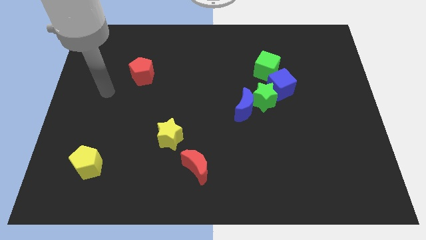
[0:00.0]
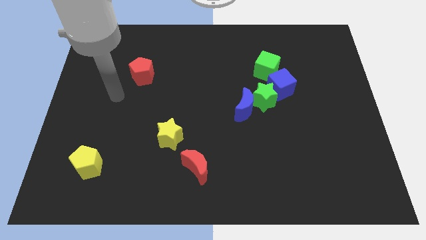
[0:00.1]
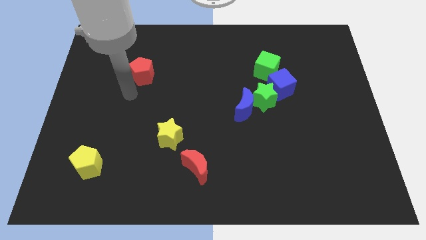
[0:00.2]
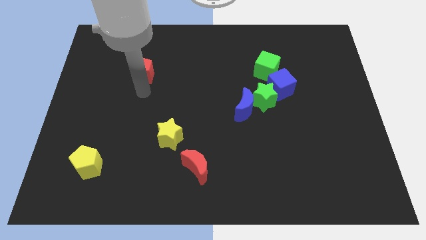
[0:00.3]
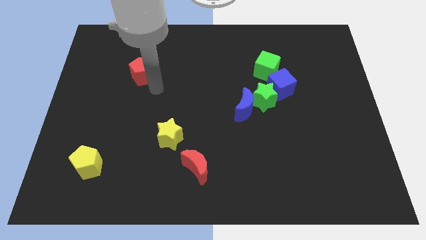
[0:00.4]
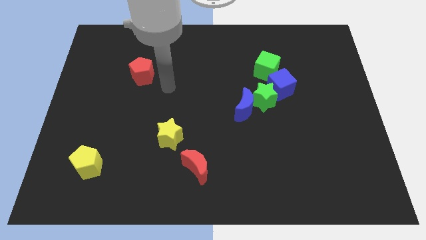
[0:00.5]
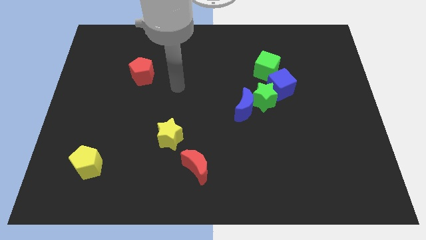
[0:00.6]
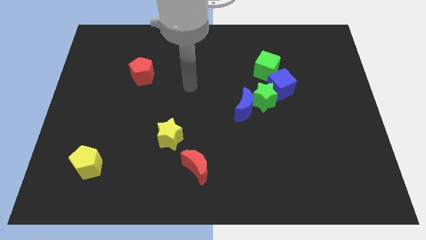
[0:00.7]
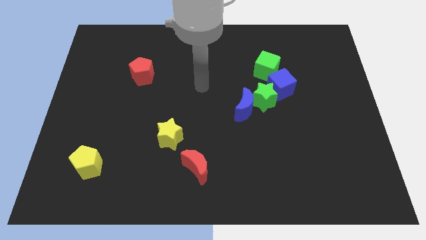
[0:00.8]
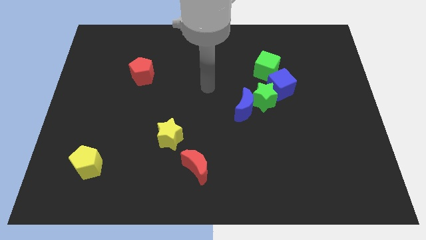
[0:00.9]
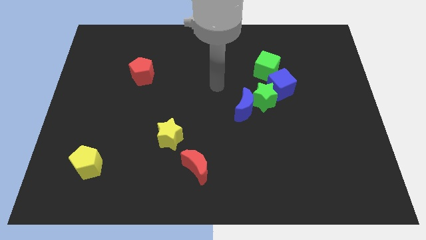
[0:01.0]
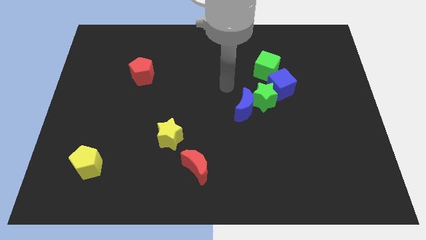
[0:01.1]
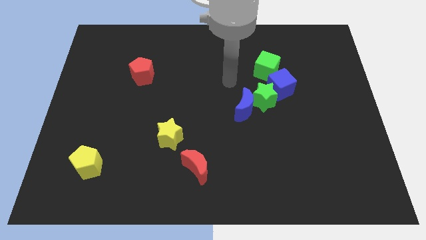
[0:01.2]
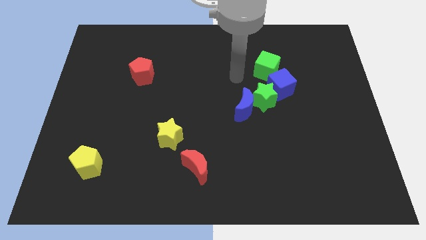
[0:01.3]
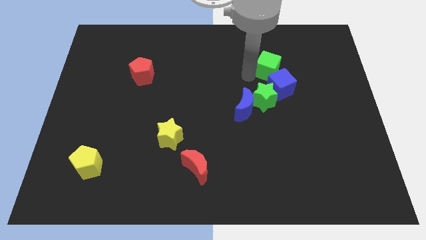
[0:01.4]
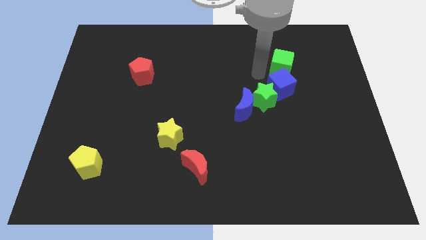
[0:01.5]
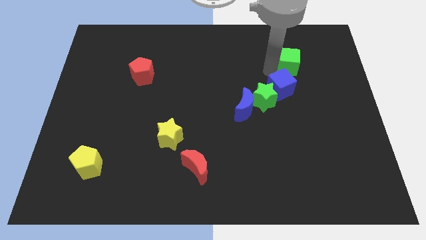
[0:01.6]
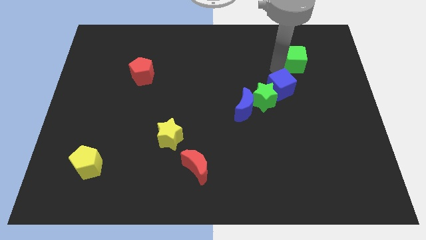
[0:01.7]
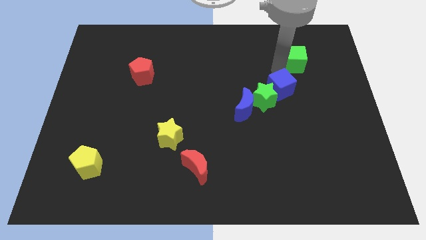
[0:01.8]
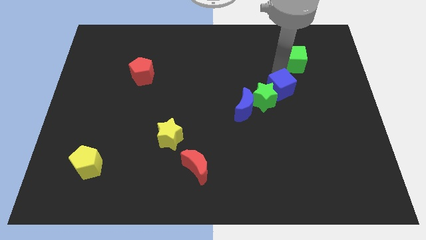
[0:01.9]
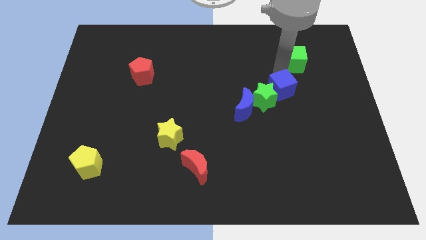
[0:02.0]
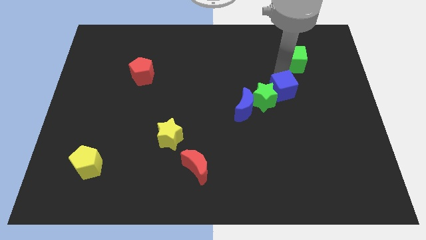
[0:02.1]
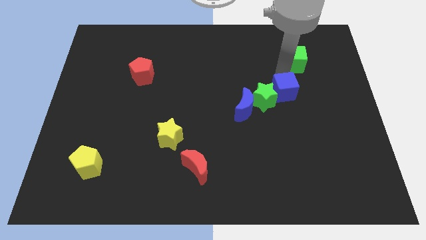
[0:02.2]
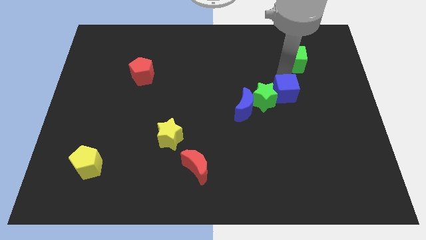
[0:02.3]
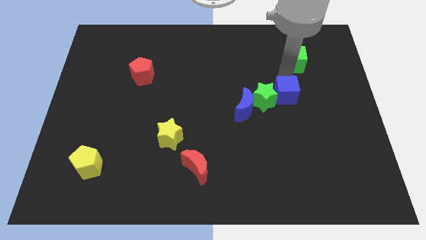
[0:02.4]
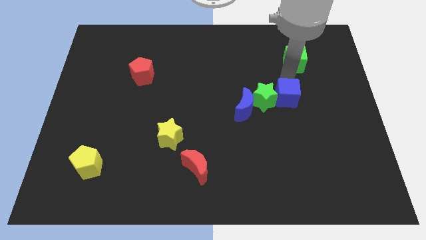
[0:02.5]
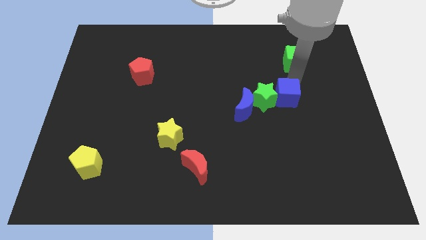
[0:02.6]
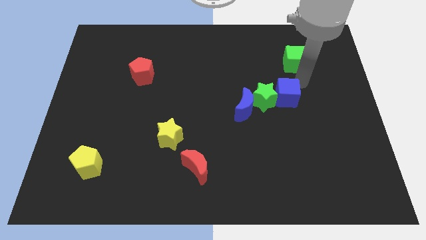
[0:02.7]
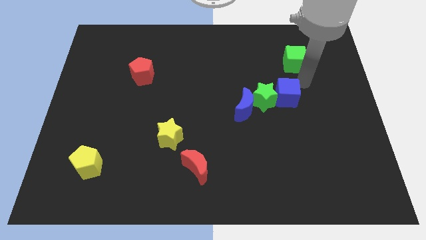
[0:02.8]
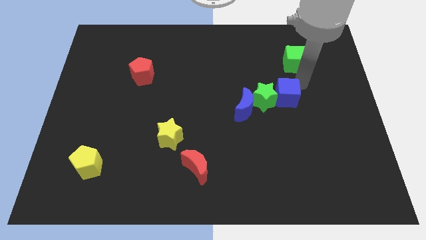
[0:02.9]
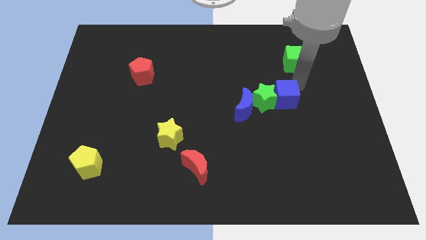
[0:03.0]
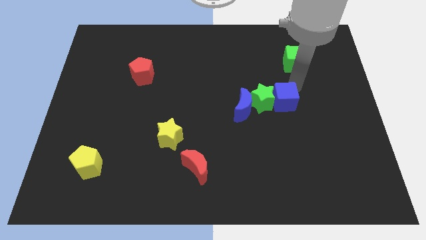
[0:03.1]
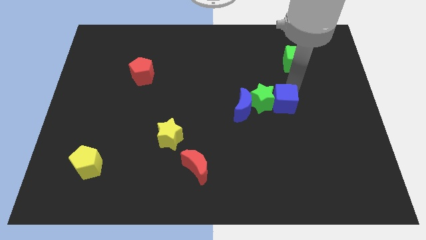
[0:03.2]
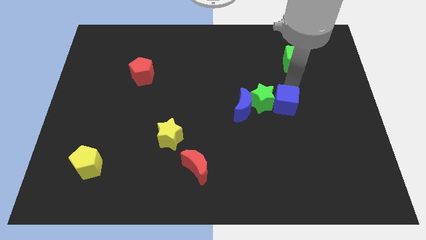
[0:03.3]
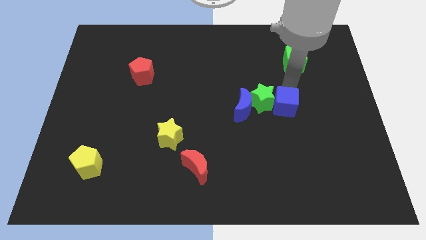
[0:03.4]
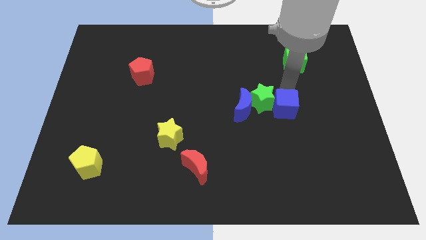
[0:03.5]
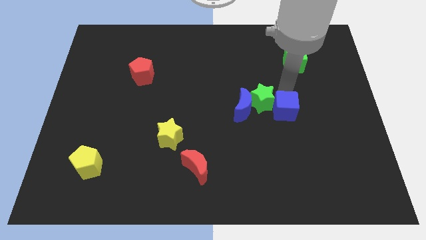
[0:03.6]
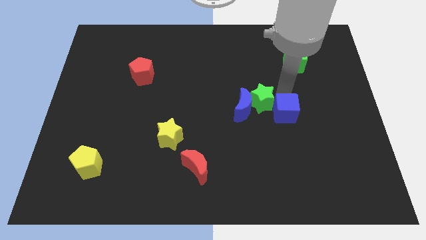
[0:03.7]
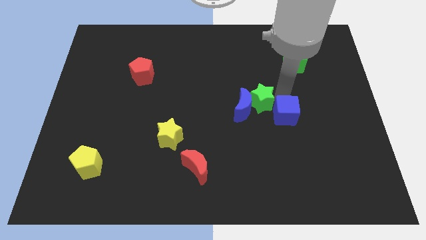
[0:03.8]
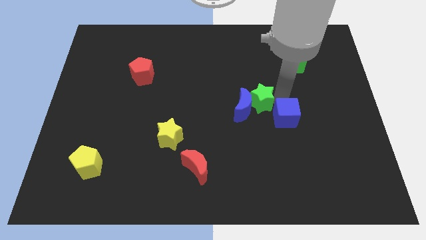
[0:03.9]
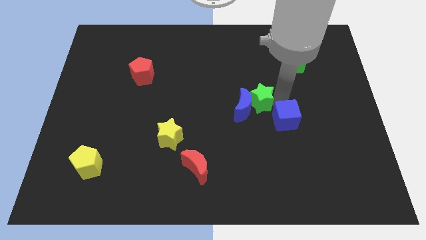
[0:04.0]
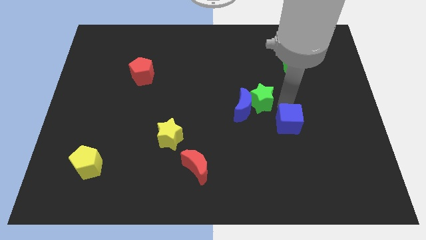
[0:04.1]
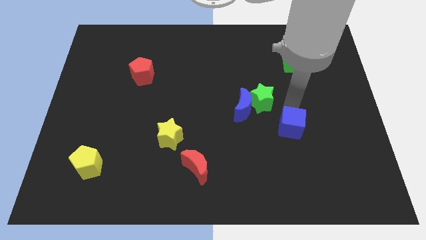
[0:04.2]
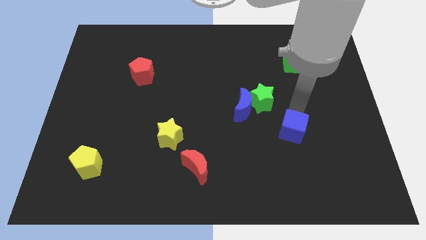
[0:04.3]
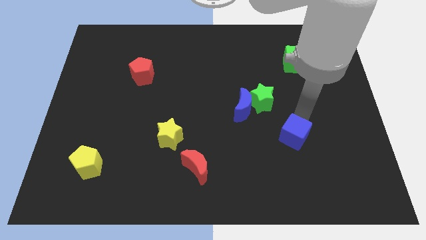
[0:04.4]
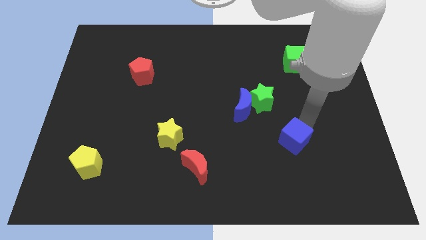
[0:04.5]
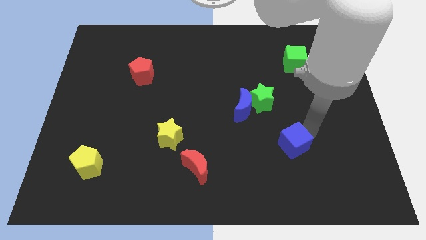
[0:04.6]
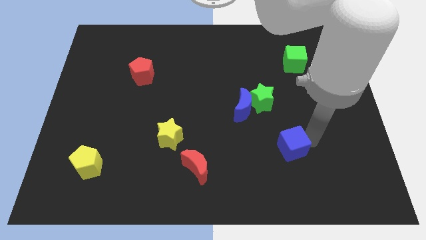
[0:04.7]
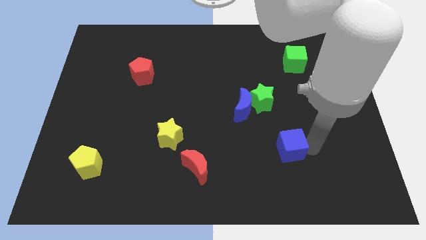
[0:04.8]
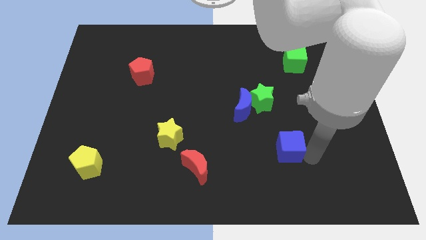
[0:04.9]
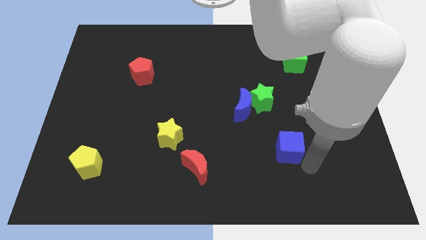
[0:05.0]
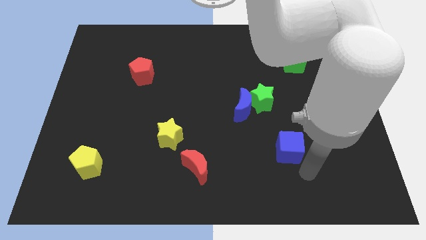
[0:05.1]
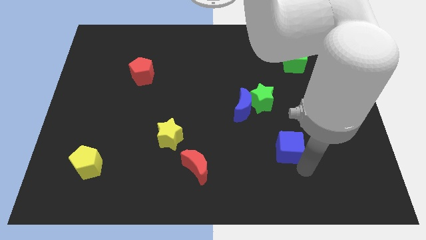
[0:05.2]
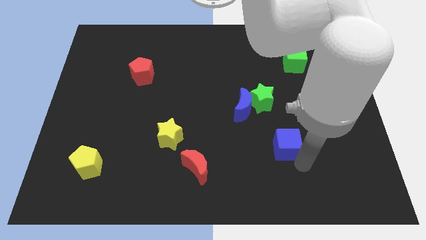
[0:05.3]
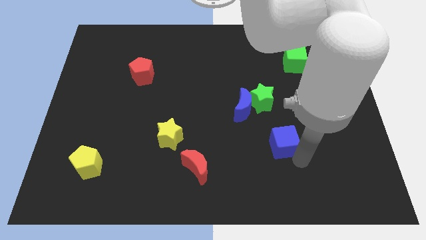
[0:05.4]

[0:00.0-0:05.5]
slightly push the blue cube diagonally downwards and to the left

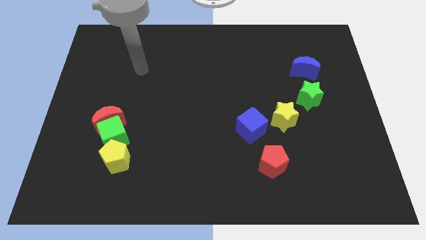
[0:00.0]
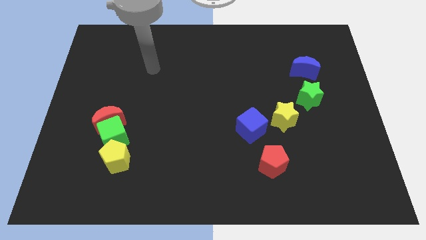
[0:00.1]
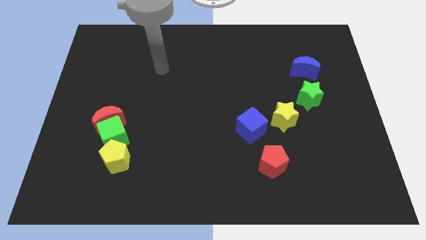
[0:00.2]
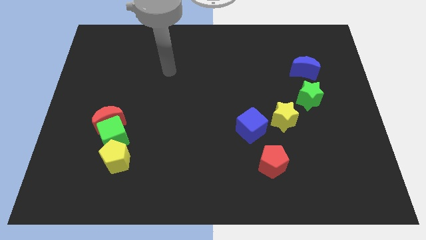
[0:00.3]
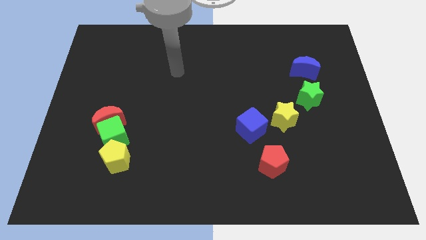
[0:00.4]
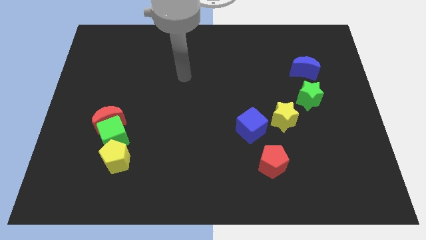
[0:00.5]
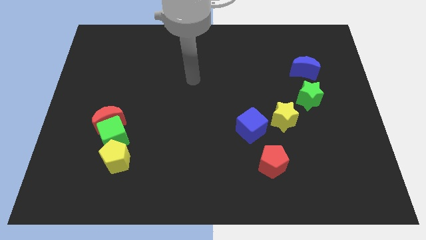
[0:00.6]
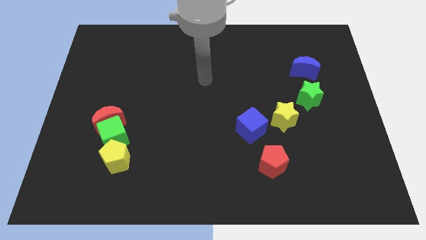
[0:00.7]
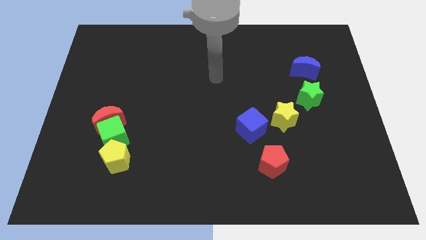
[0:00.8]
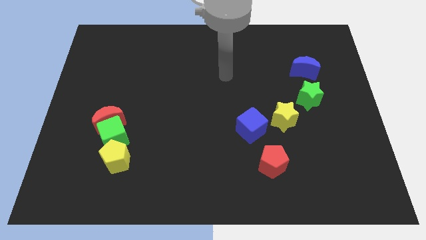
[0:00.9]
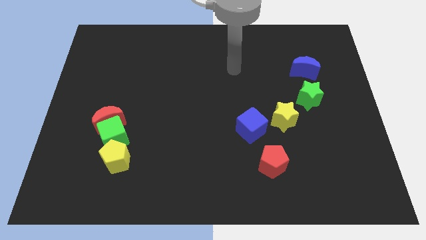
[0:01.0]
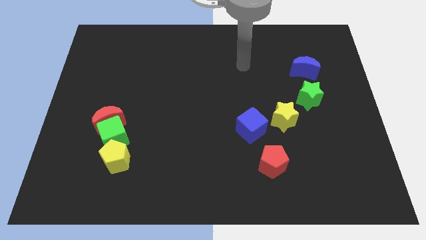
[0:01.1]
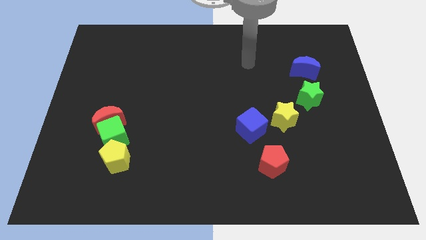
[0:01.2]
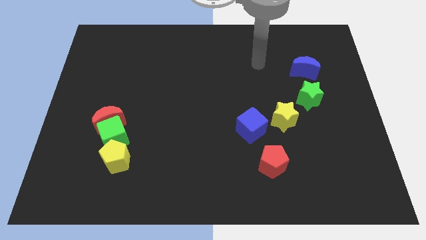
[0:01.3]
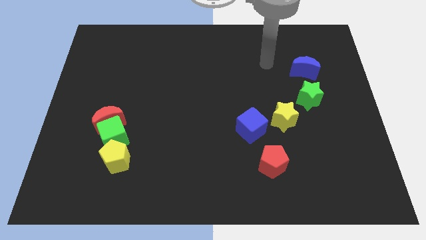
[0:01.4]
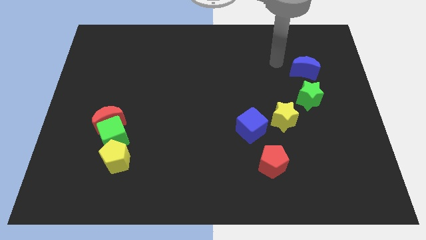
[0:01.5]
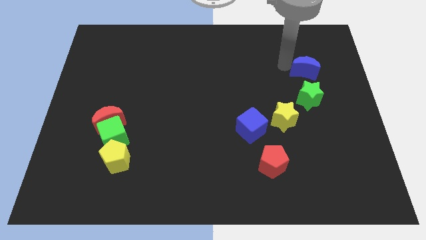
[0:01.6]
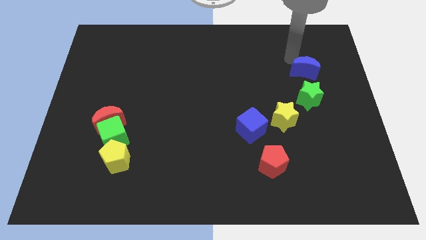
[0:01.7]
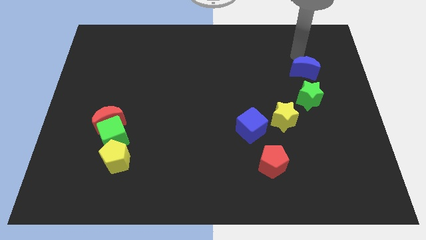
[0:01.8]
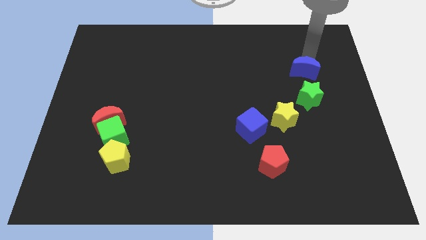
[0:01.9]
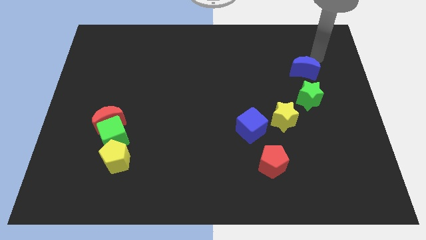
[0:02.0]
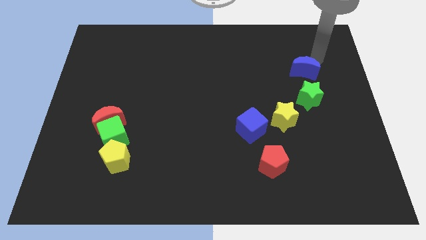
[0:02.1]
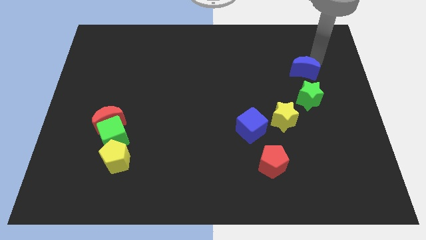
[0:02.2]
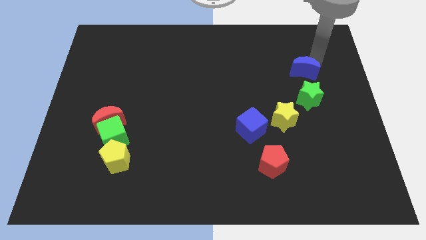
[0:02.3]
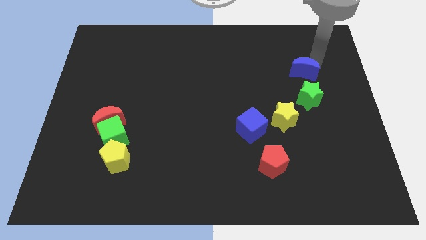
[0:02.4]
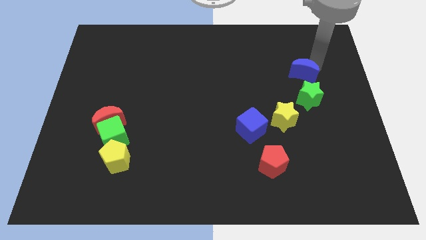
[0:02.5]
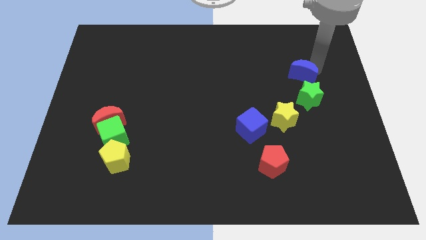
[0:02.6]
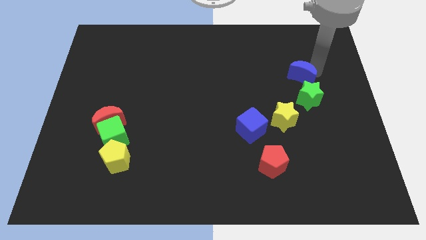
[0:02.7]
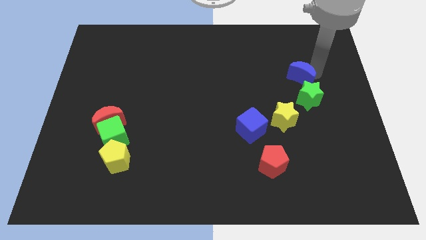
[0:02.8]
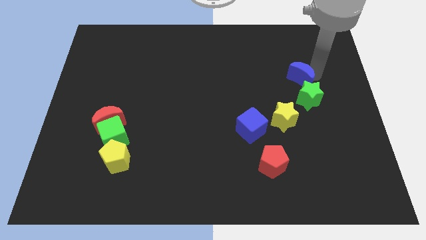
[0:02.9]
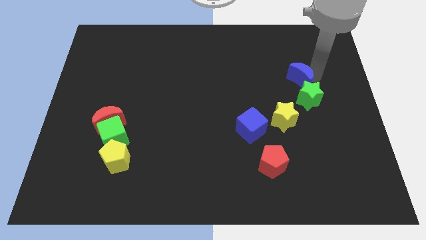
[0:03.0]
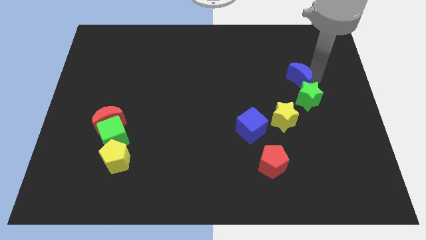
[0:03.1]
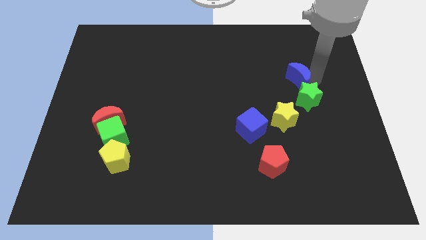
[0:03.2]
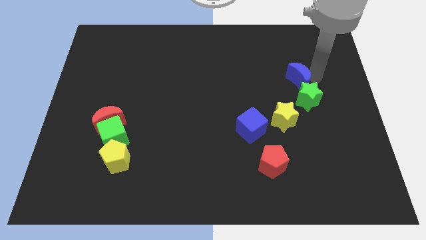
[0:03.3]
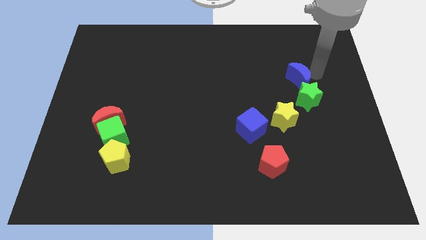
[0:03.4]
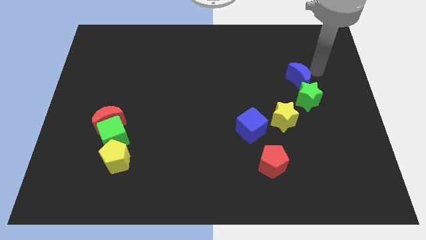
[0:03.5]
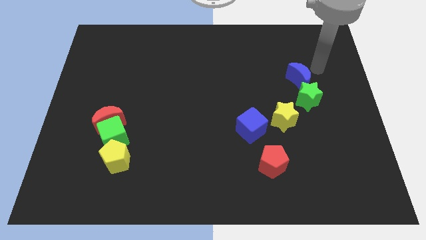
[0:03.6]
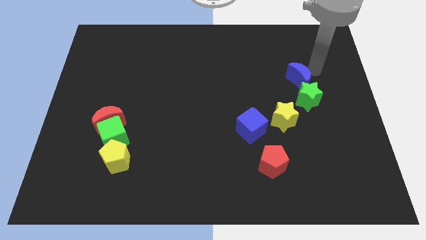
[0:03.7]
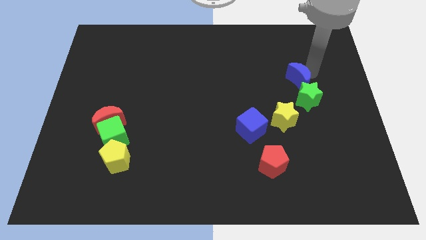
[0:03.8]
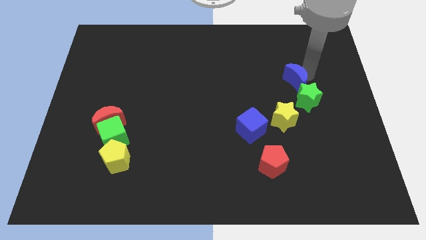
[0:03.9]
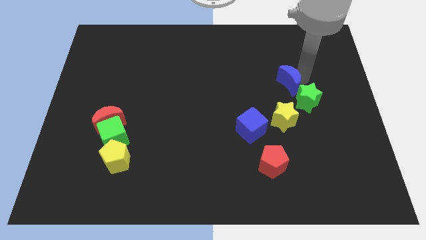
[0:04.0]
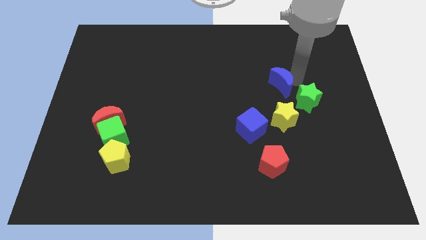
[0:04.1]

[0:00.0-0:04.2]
push the blue moon slightly diagonally down and to the left
